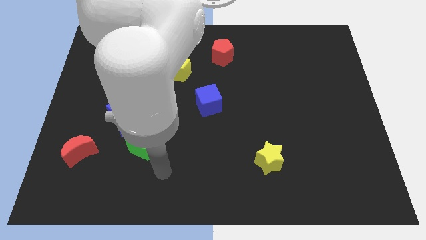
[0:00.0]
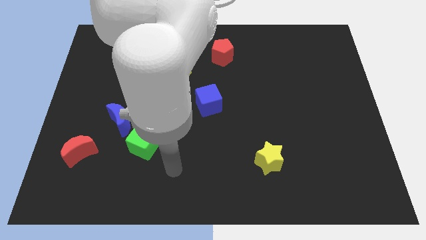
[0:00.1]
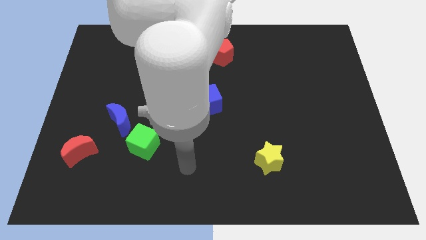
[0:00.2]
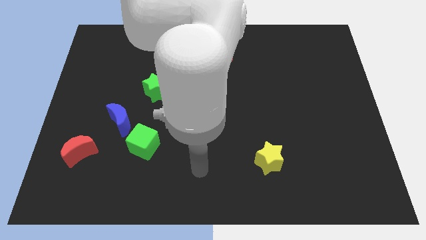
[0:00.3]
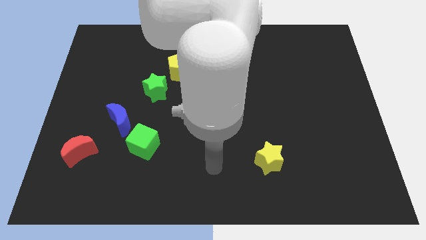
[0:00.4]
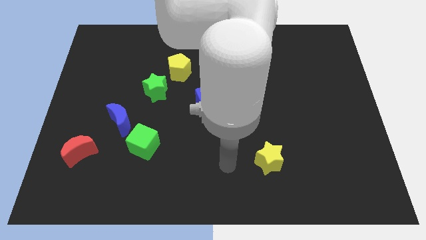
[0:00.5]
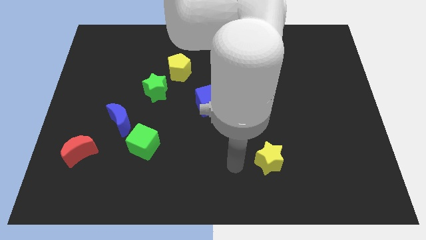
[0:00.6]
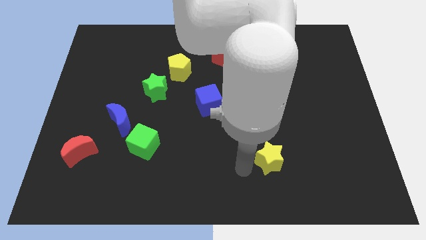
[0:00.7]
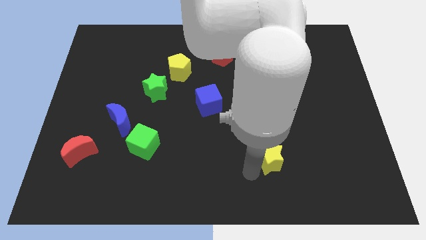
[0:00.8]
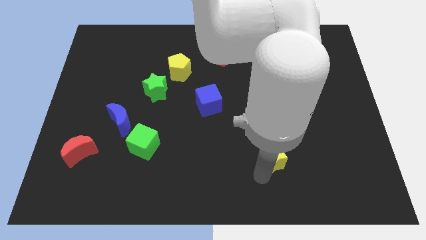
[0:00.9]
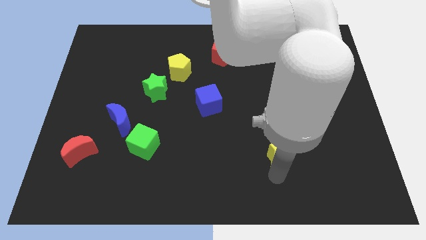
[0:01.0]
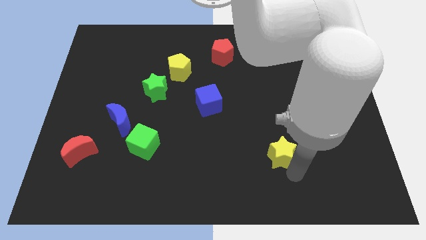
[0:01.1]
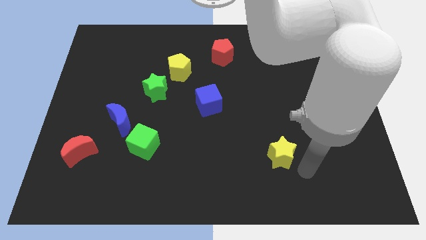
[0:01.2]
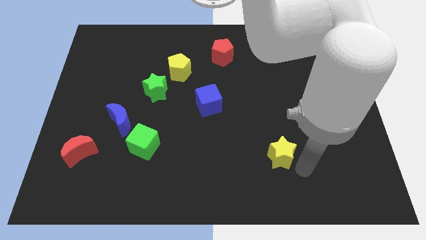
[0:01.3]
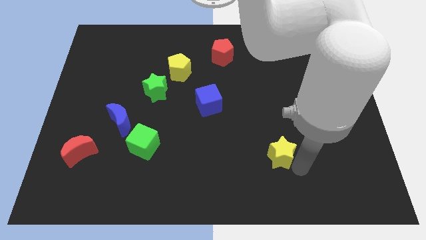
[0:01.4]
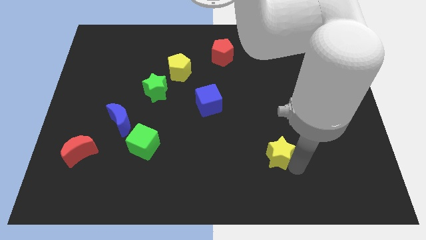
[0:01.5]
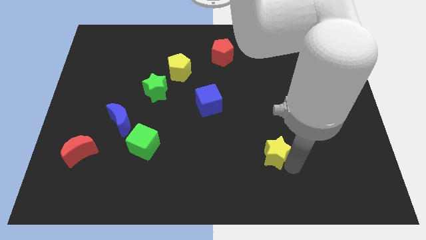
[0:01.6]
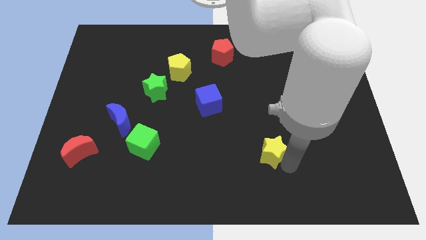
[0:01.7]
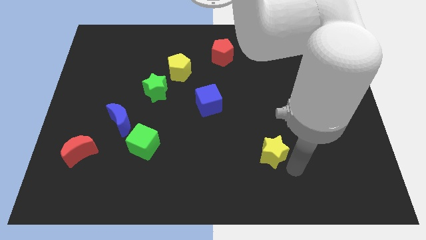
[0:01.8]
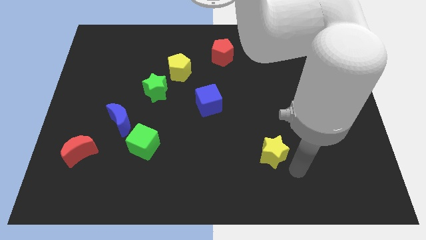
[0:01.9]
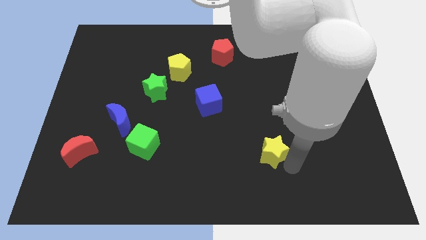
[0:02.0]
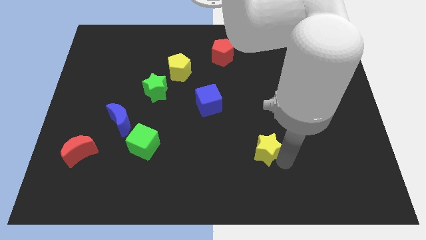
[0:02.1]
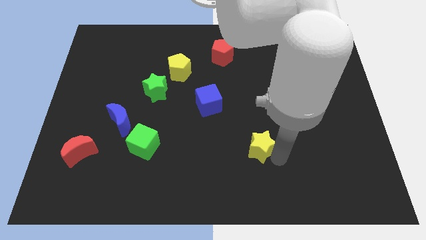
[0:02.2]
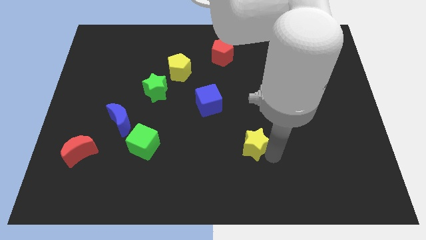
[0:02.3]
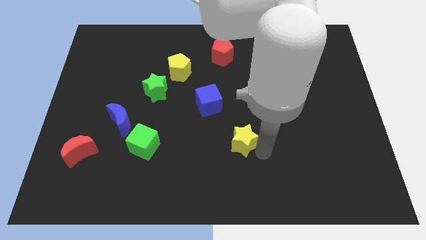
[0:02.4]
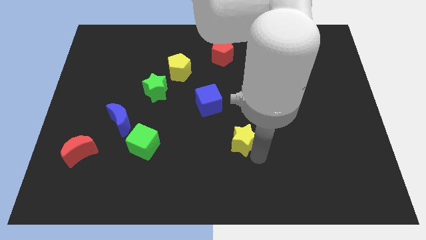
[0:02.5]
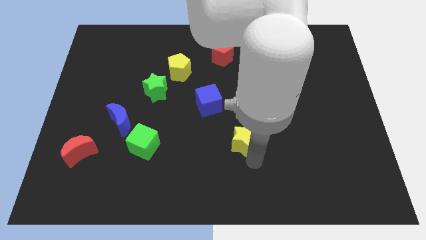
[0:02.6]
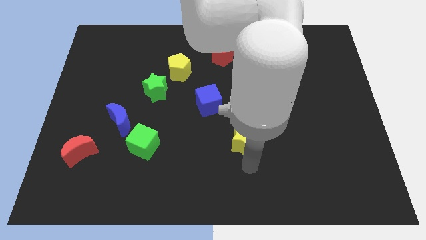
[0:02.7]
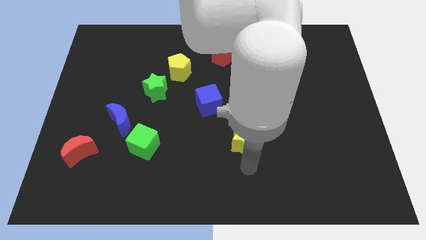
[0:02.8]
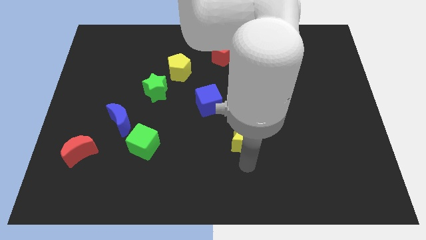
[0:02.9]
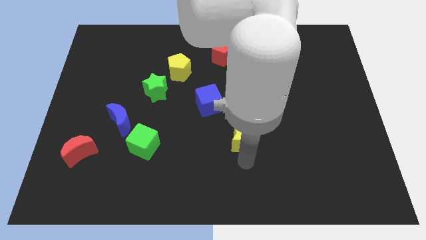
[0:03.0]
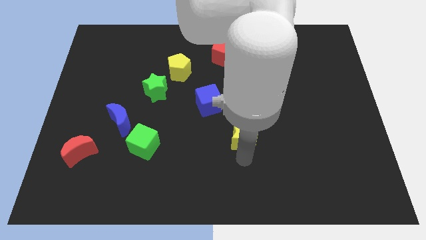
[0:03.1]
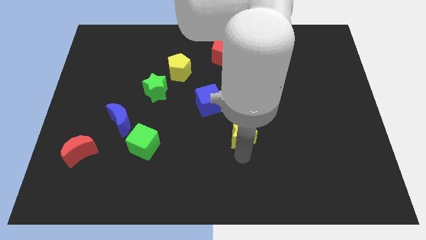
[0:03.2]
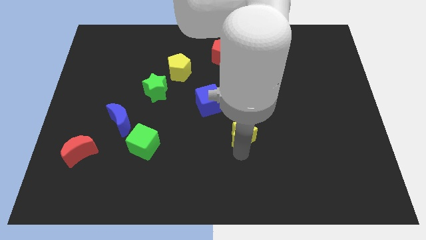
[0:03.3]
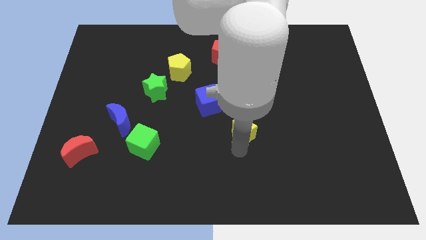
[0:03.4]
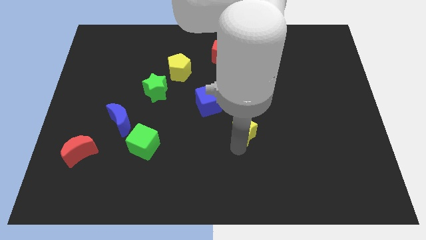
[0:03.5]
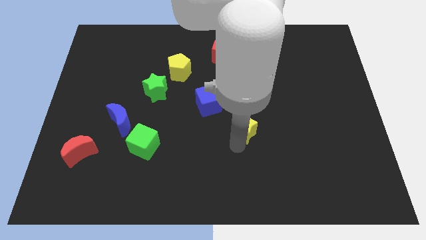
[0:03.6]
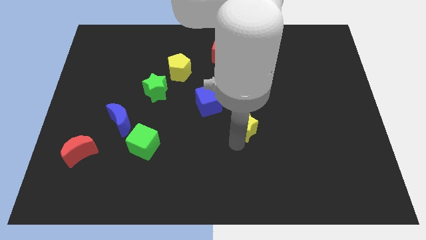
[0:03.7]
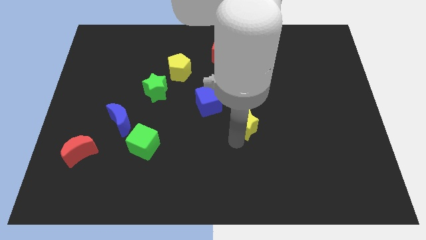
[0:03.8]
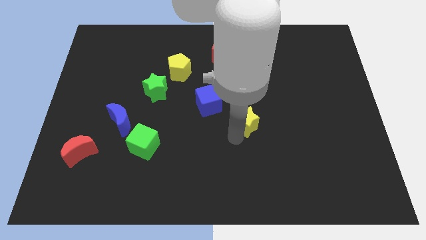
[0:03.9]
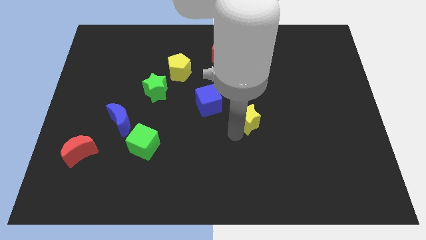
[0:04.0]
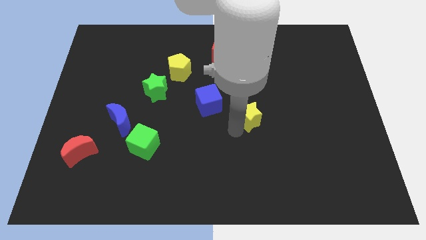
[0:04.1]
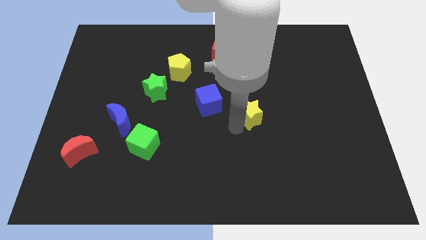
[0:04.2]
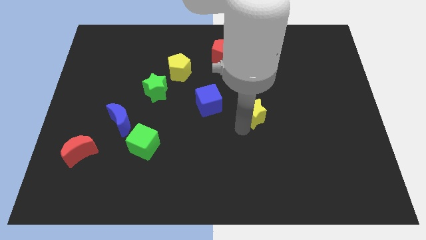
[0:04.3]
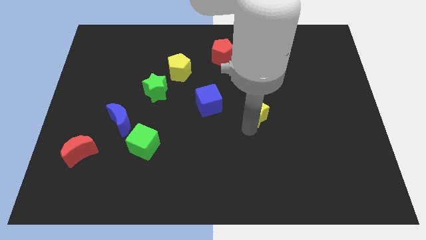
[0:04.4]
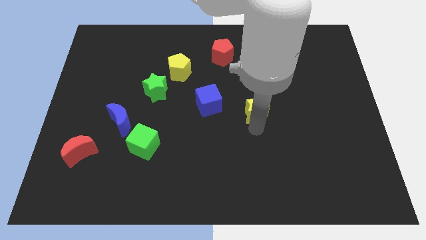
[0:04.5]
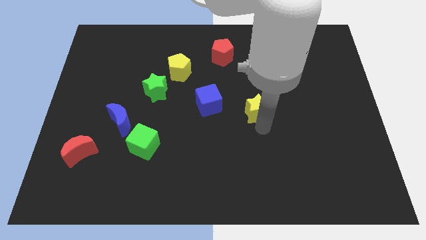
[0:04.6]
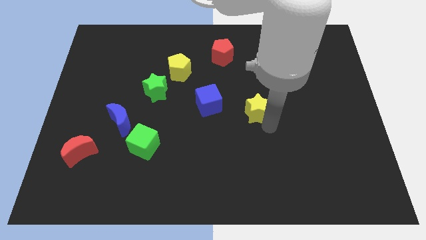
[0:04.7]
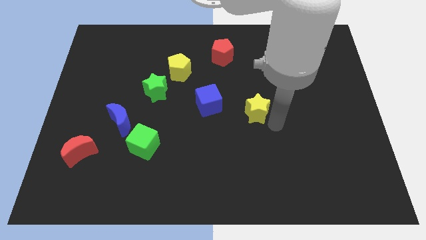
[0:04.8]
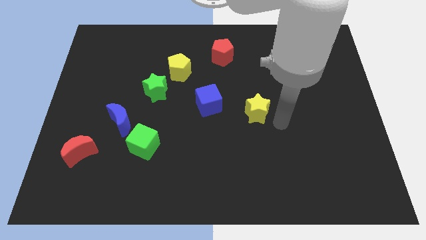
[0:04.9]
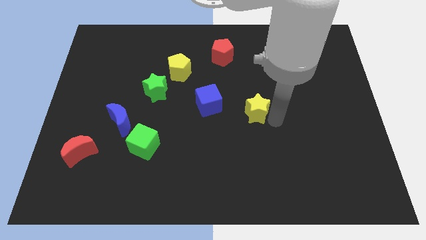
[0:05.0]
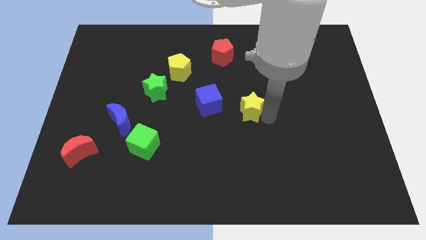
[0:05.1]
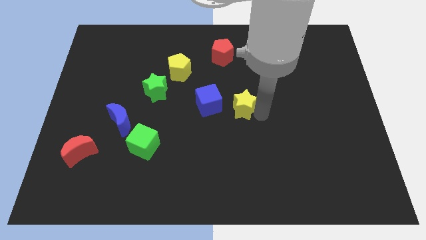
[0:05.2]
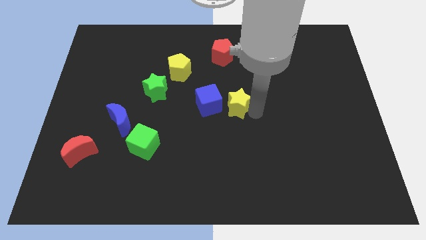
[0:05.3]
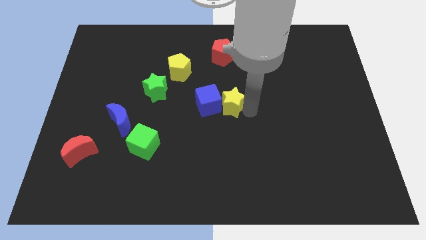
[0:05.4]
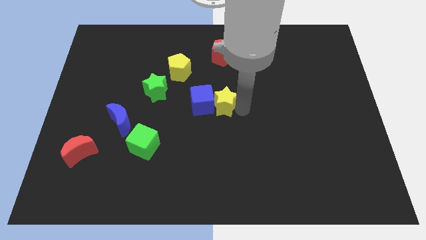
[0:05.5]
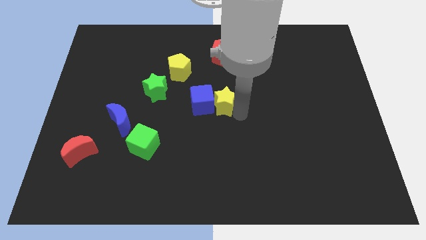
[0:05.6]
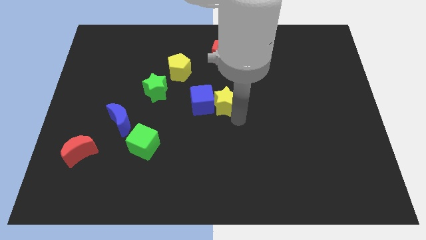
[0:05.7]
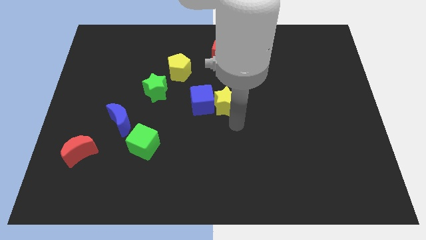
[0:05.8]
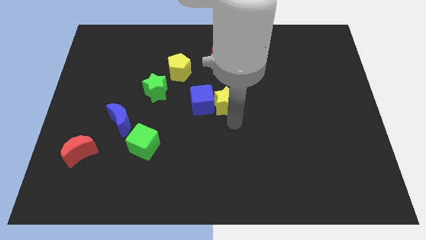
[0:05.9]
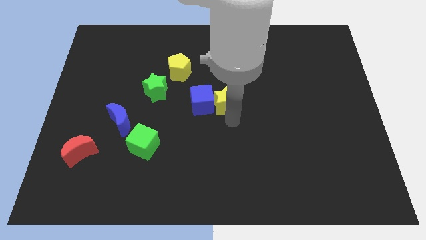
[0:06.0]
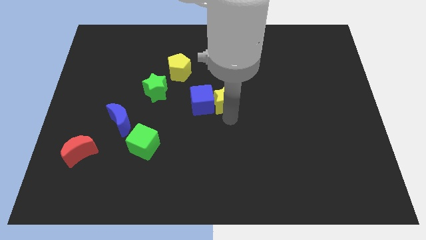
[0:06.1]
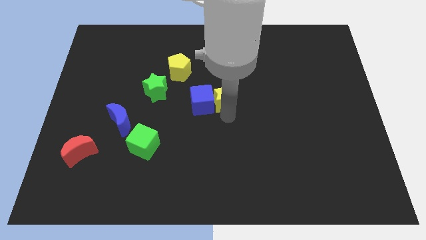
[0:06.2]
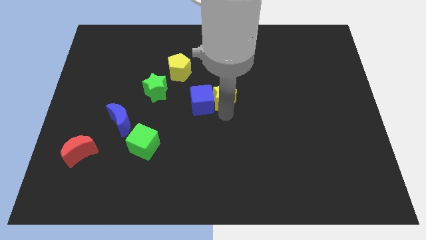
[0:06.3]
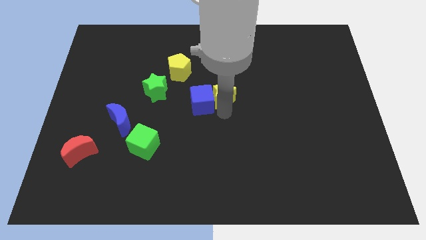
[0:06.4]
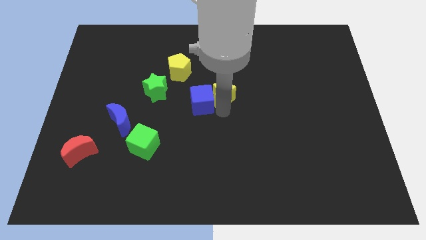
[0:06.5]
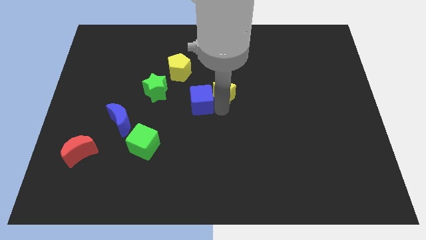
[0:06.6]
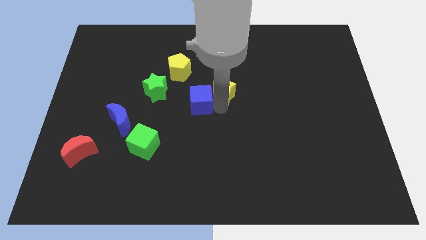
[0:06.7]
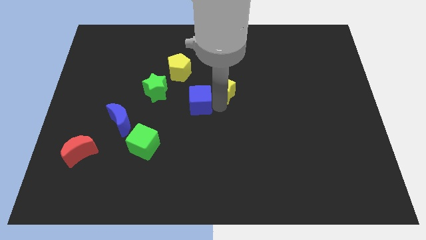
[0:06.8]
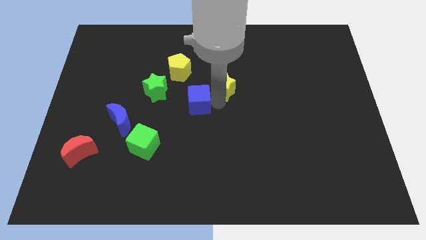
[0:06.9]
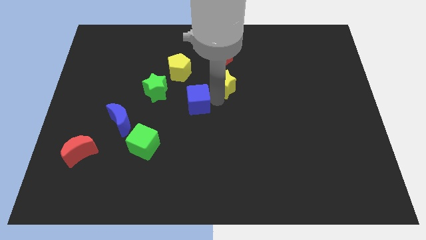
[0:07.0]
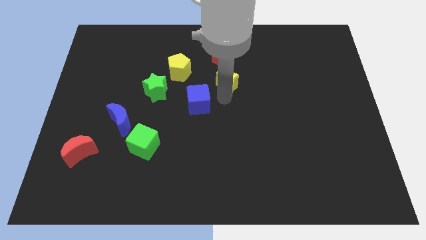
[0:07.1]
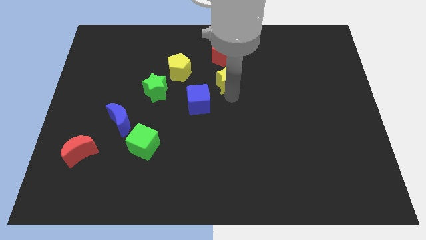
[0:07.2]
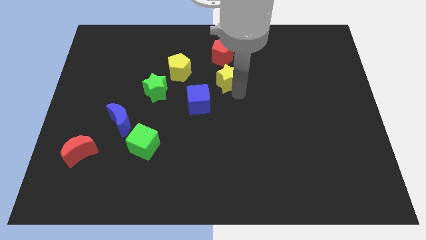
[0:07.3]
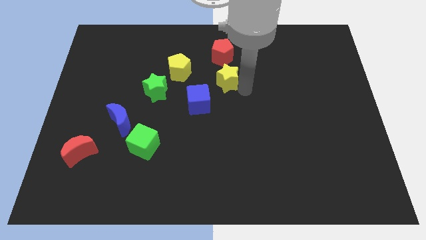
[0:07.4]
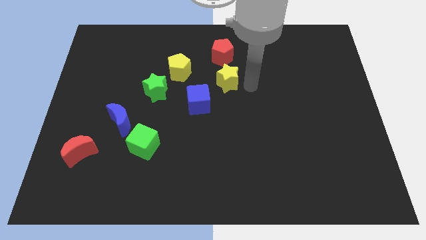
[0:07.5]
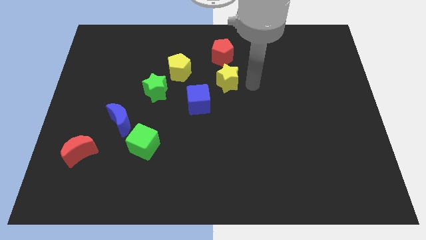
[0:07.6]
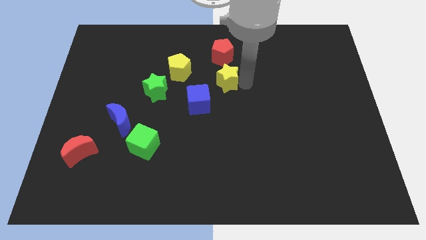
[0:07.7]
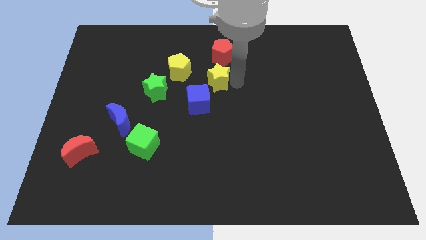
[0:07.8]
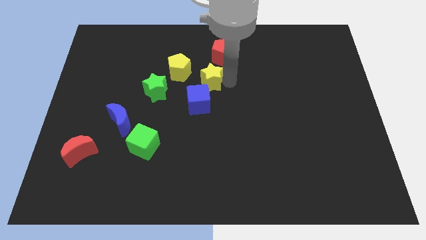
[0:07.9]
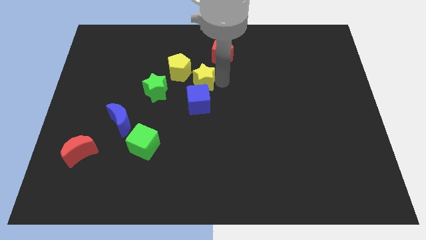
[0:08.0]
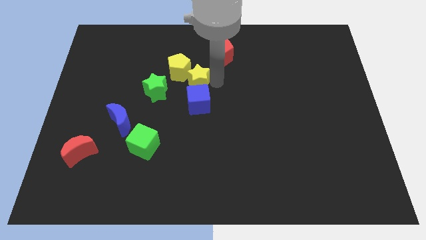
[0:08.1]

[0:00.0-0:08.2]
push the yellow star next to the yellow pentagon
